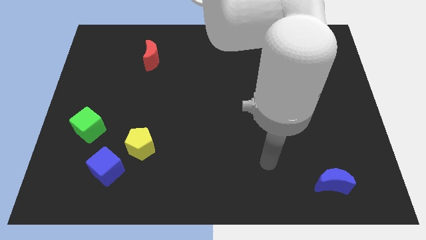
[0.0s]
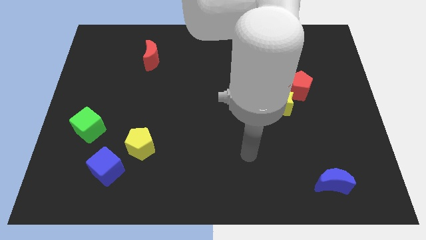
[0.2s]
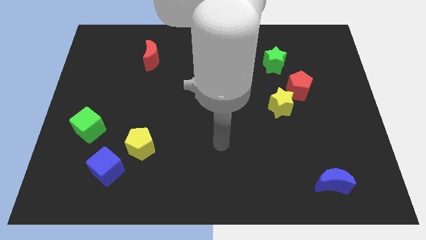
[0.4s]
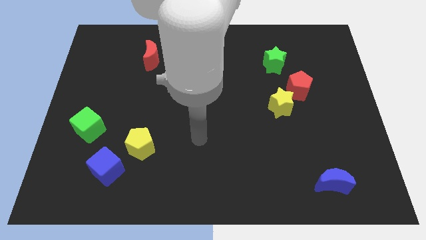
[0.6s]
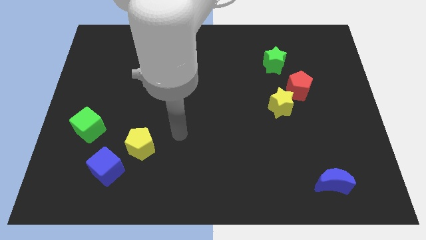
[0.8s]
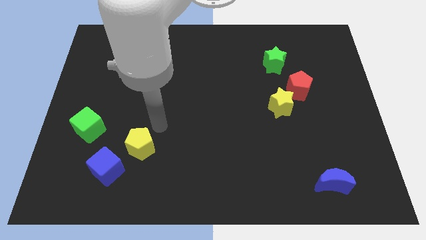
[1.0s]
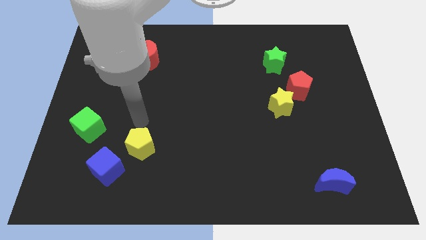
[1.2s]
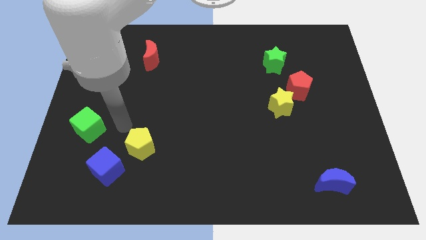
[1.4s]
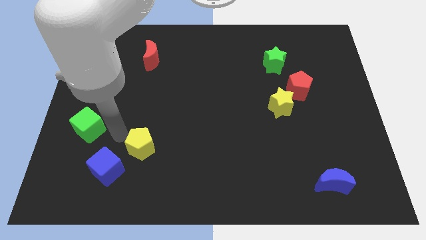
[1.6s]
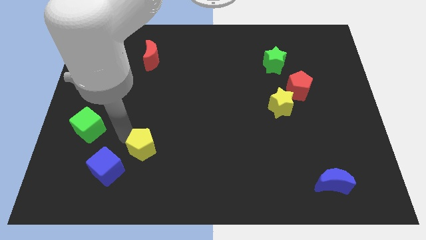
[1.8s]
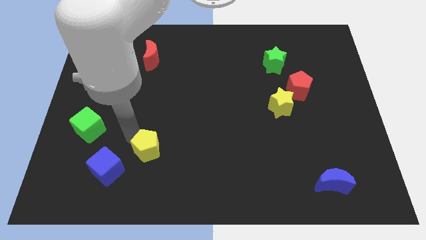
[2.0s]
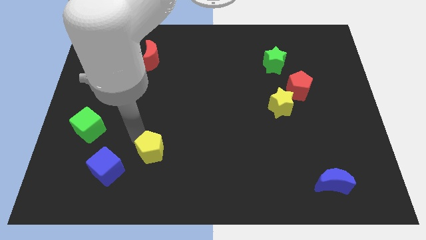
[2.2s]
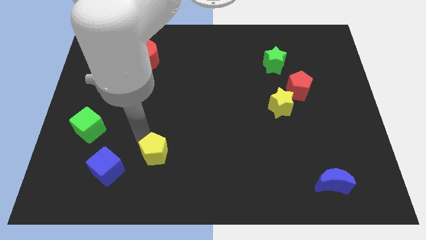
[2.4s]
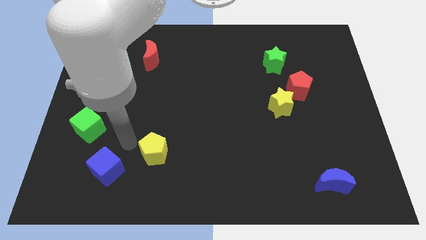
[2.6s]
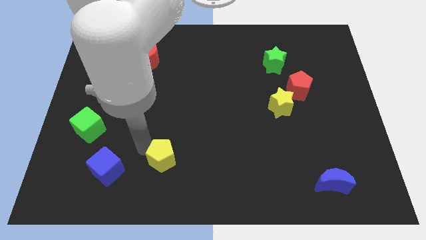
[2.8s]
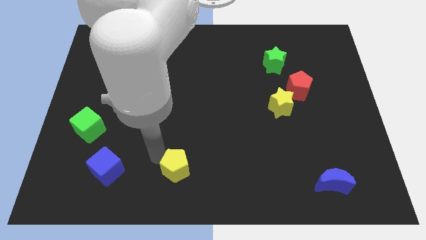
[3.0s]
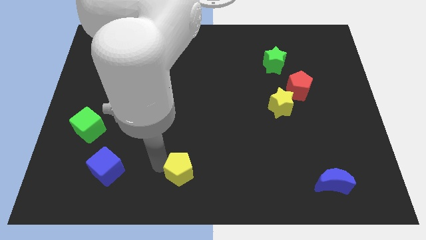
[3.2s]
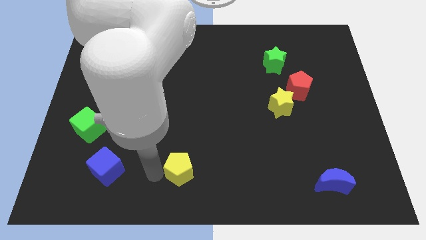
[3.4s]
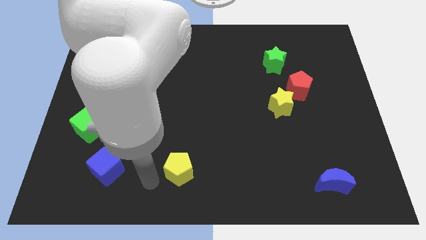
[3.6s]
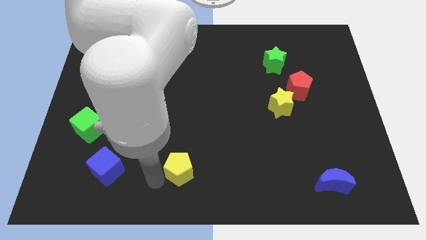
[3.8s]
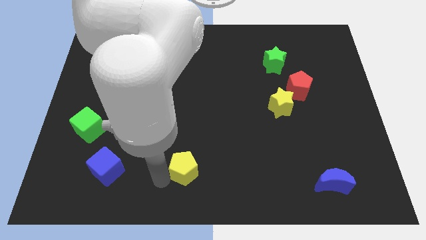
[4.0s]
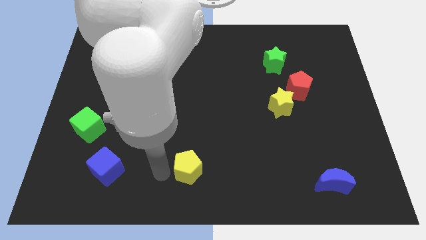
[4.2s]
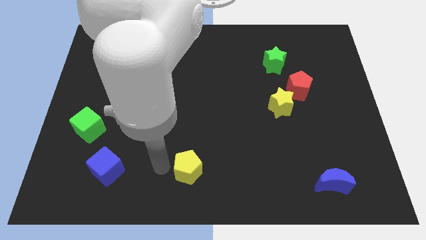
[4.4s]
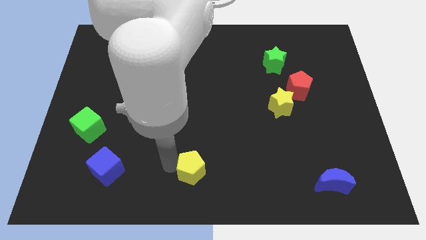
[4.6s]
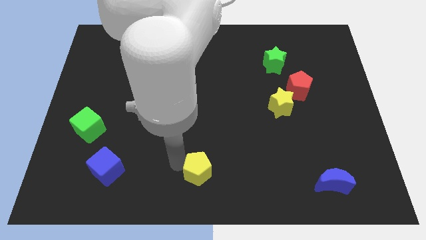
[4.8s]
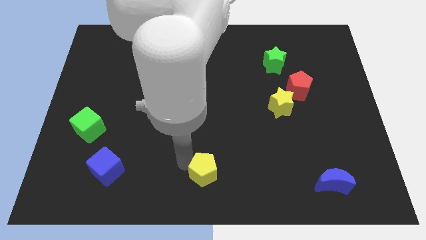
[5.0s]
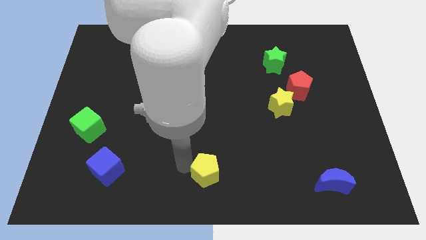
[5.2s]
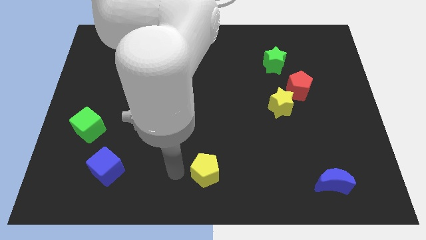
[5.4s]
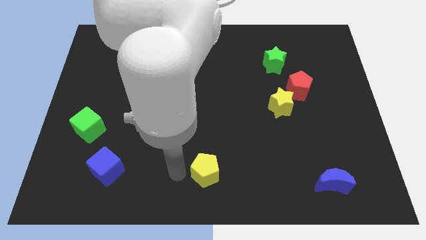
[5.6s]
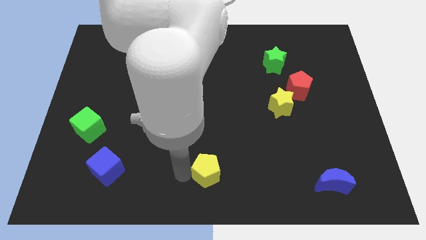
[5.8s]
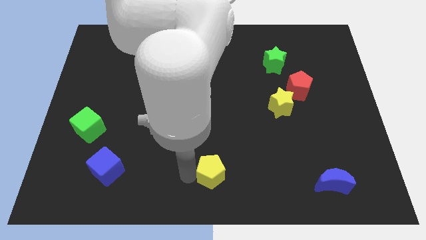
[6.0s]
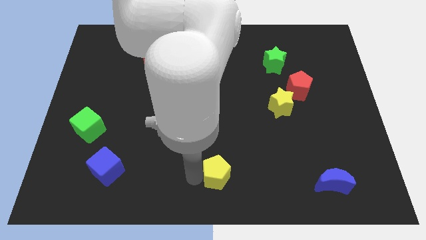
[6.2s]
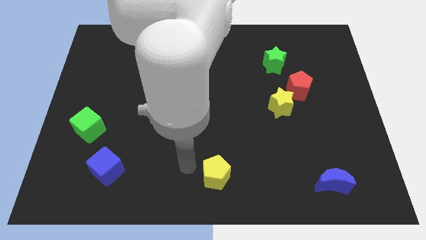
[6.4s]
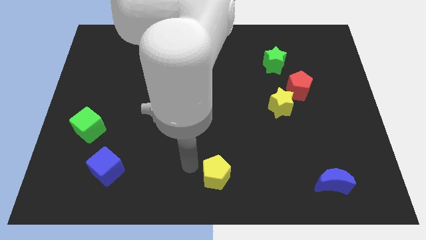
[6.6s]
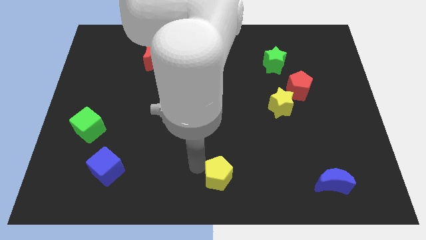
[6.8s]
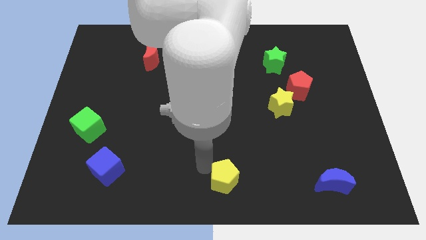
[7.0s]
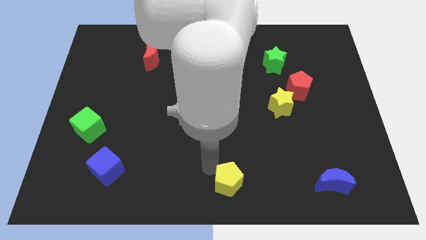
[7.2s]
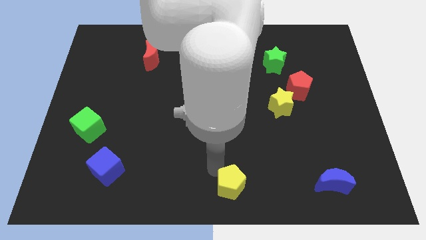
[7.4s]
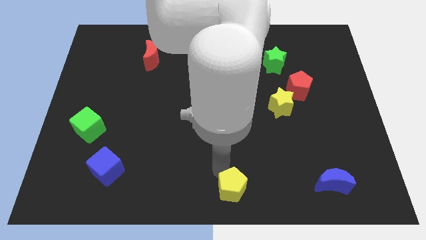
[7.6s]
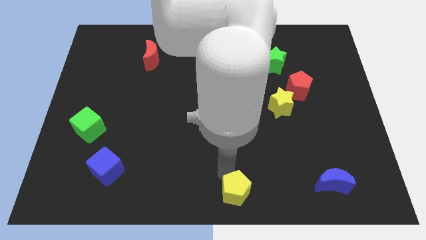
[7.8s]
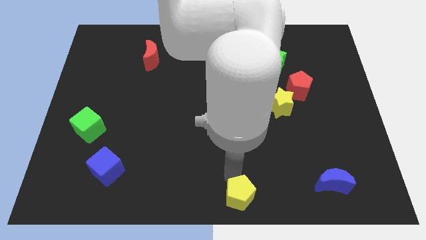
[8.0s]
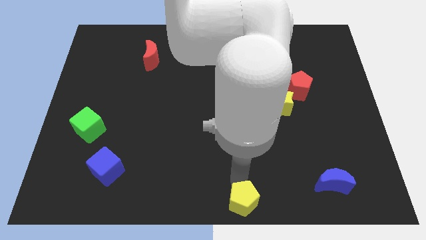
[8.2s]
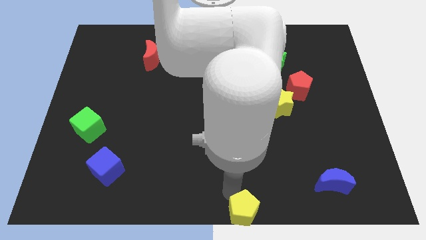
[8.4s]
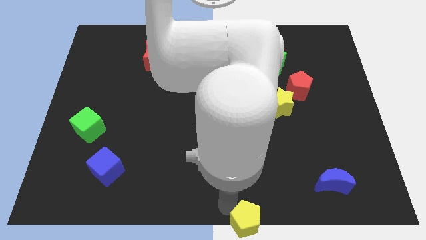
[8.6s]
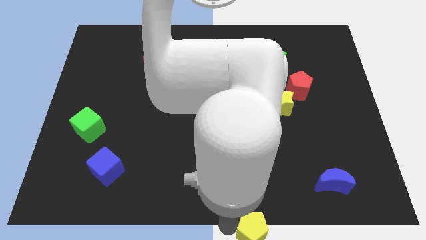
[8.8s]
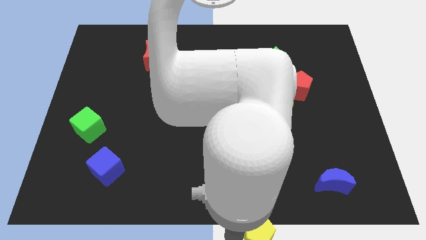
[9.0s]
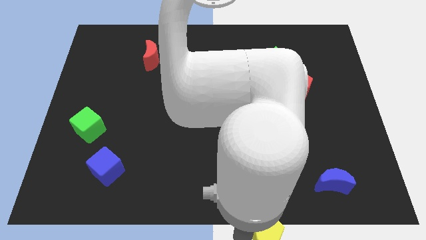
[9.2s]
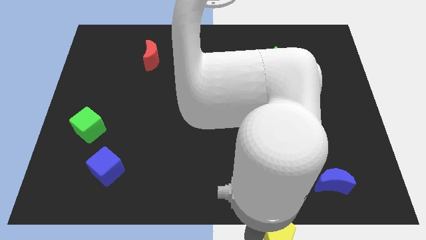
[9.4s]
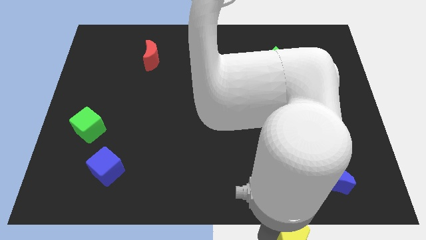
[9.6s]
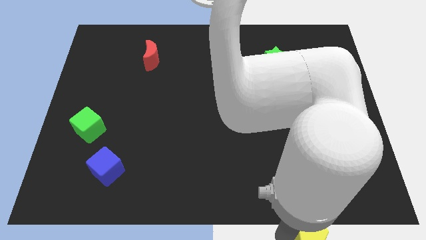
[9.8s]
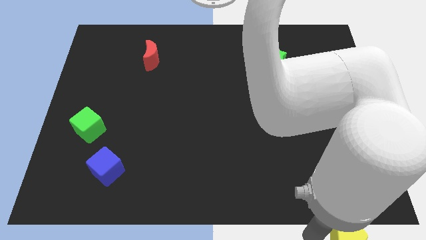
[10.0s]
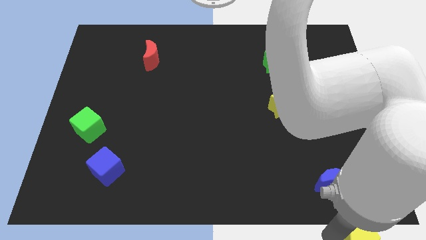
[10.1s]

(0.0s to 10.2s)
move the yellow pentagon to the bottom right corner
